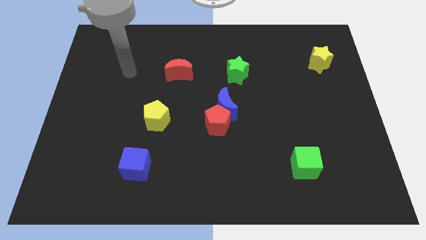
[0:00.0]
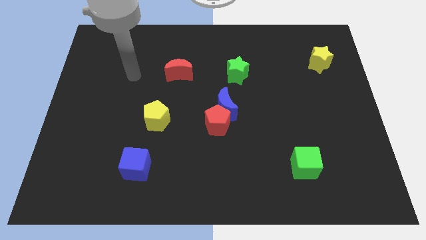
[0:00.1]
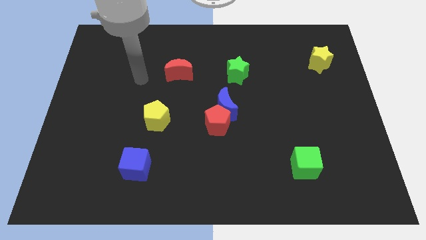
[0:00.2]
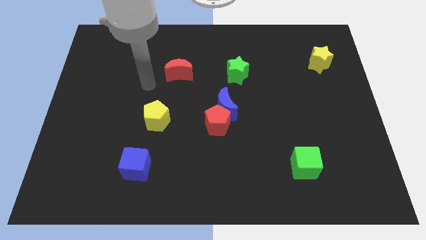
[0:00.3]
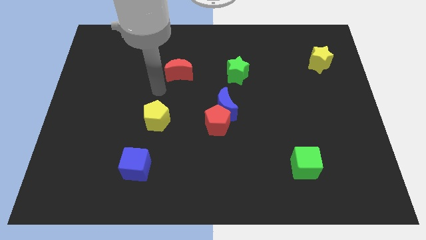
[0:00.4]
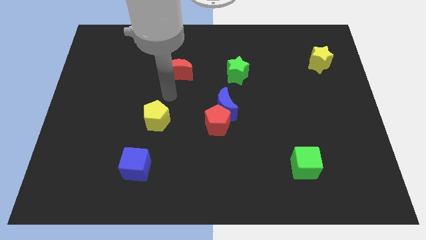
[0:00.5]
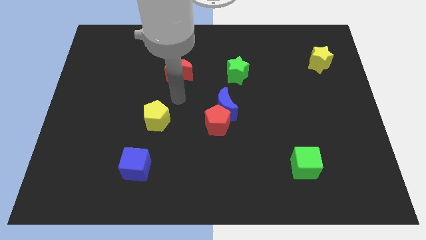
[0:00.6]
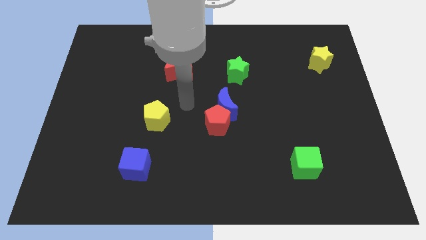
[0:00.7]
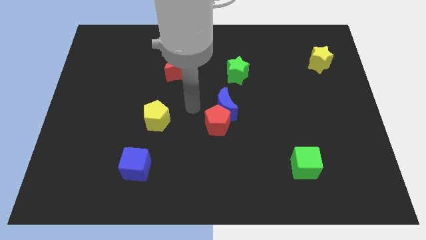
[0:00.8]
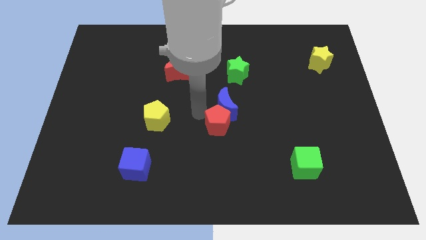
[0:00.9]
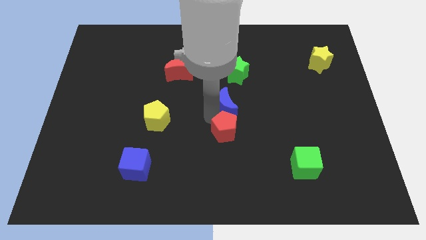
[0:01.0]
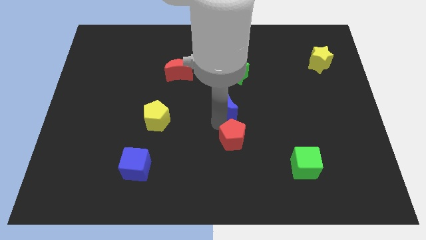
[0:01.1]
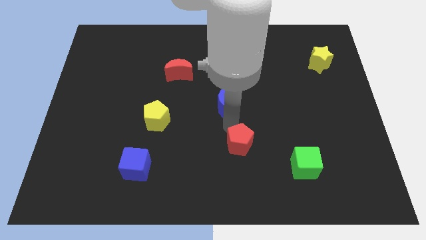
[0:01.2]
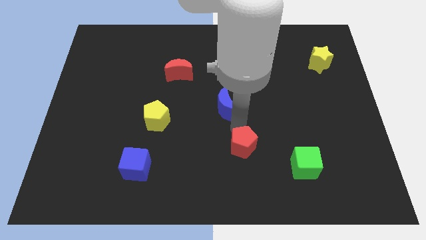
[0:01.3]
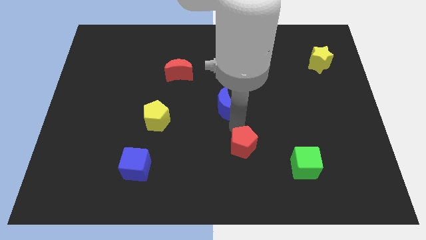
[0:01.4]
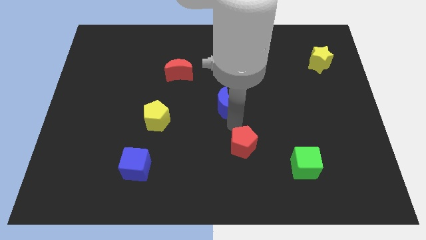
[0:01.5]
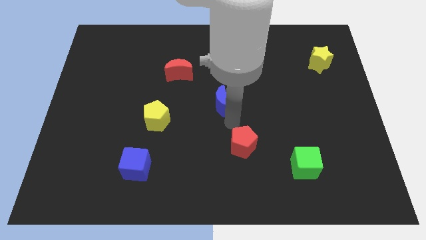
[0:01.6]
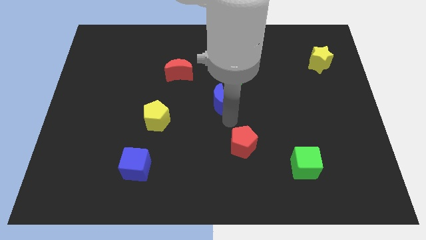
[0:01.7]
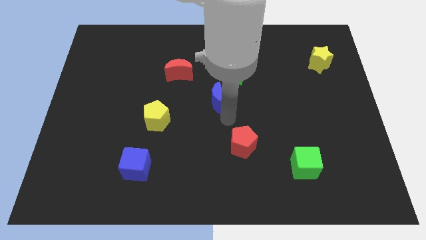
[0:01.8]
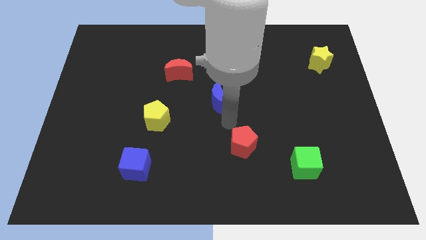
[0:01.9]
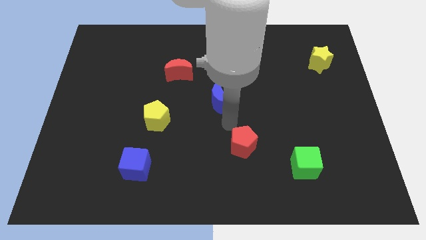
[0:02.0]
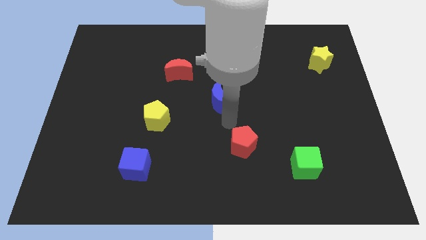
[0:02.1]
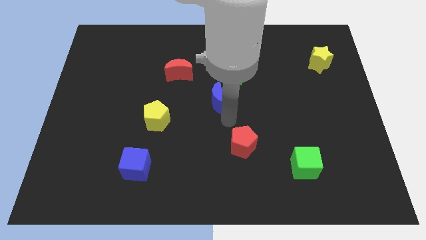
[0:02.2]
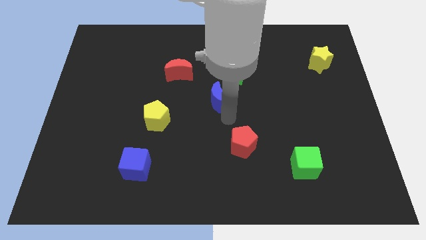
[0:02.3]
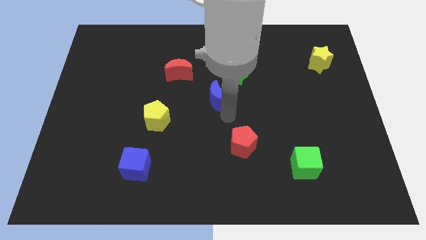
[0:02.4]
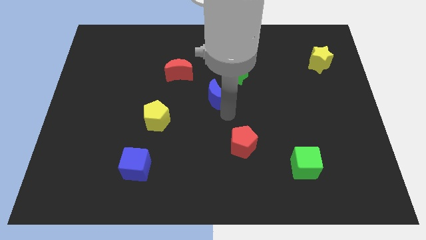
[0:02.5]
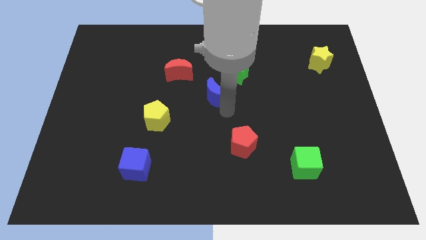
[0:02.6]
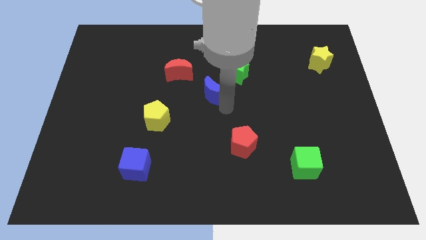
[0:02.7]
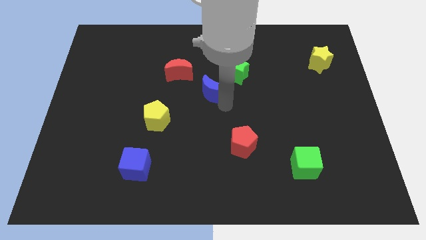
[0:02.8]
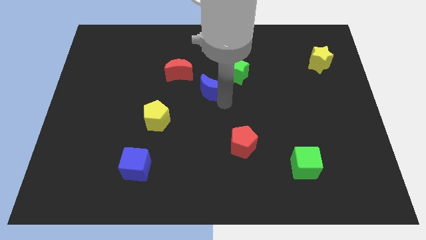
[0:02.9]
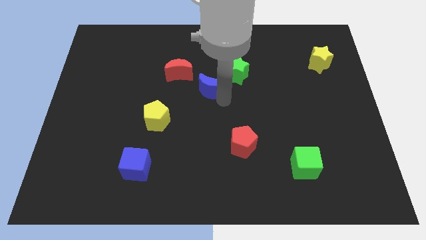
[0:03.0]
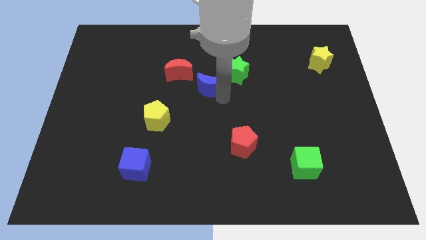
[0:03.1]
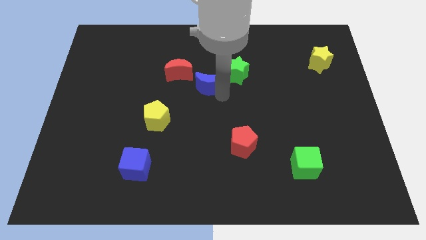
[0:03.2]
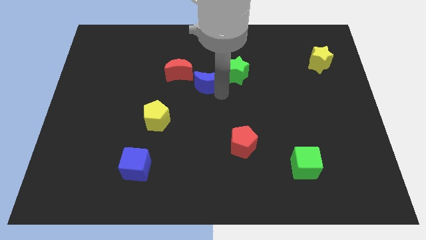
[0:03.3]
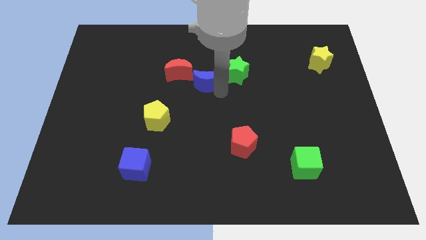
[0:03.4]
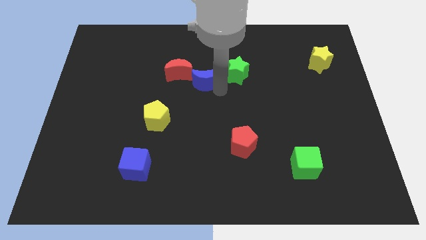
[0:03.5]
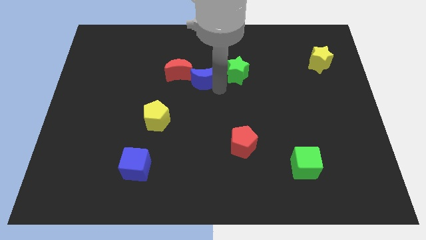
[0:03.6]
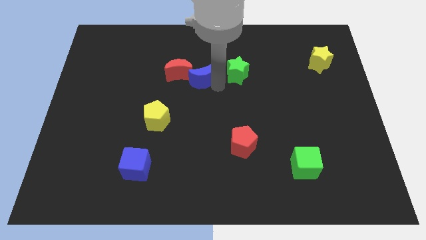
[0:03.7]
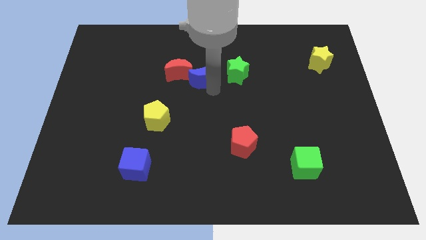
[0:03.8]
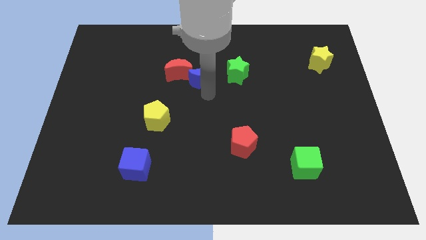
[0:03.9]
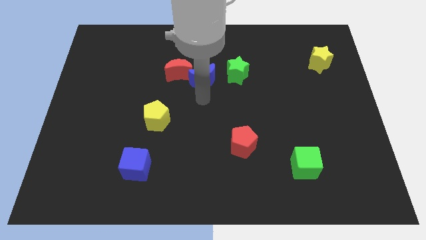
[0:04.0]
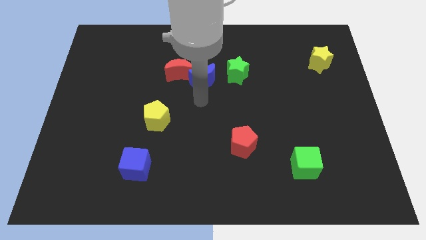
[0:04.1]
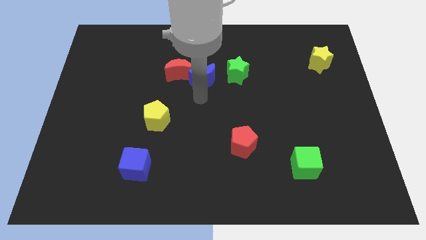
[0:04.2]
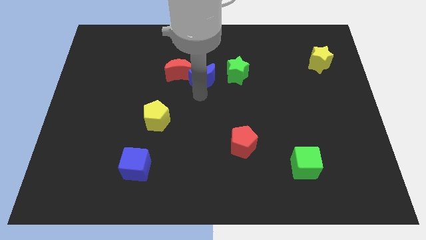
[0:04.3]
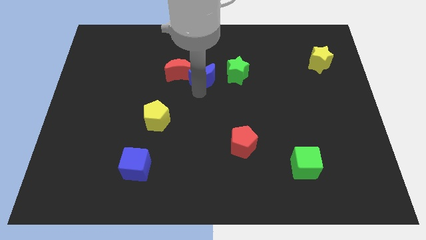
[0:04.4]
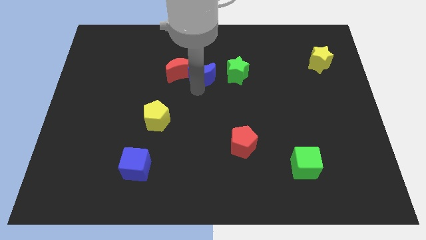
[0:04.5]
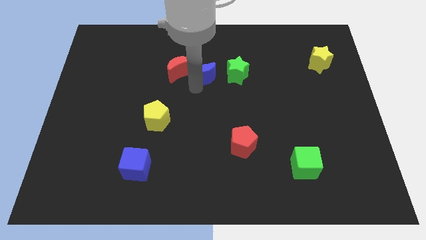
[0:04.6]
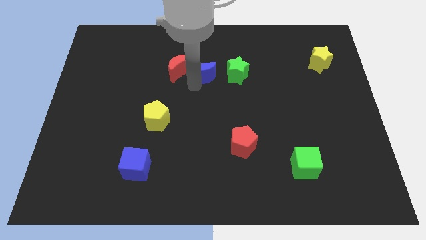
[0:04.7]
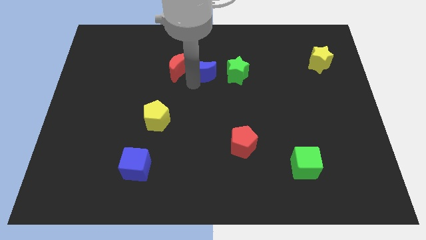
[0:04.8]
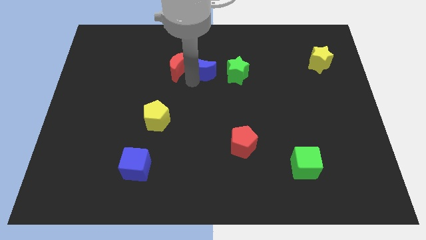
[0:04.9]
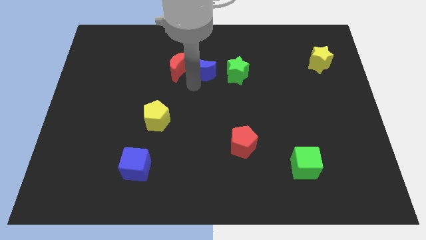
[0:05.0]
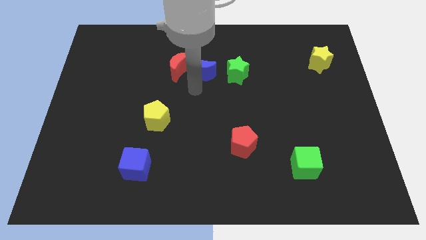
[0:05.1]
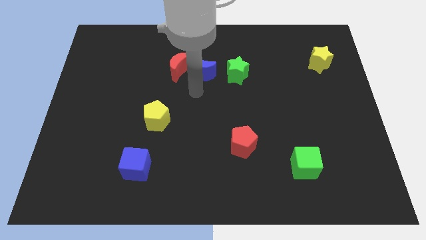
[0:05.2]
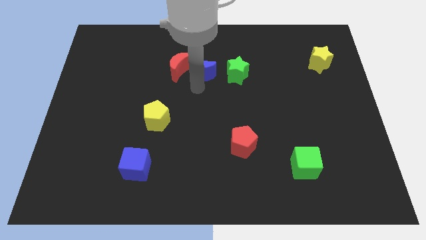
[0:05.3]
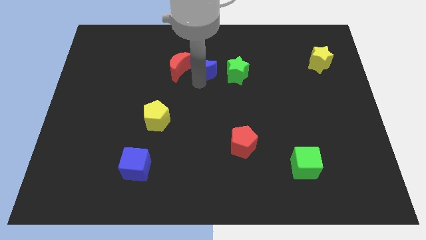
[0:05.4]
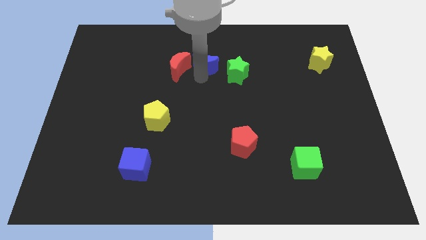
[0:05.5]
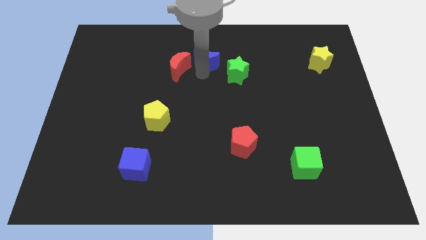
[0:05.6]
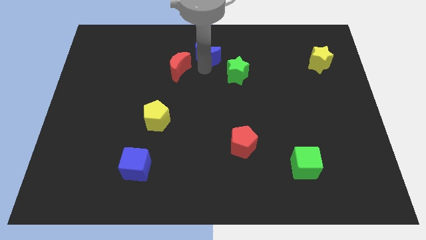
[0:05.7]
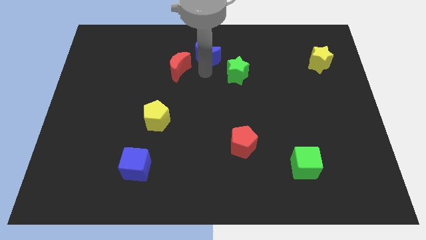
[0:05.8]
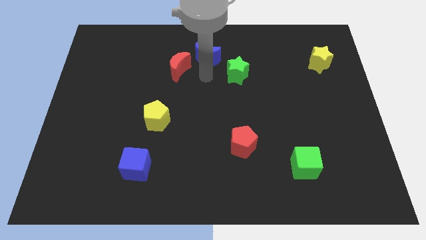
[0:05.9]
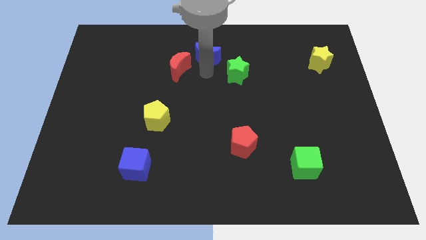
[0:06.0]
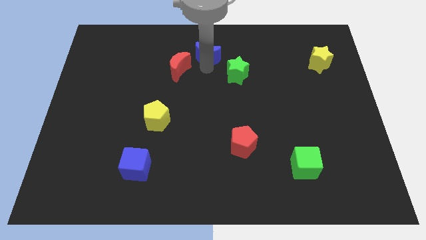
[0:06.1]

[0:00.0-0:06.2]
push the blue moon to the towards your base
